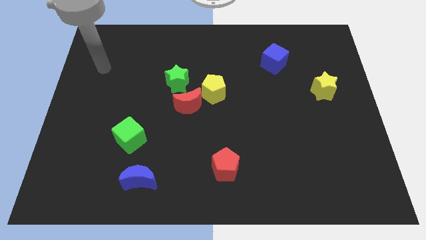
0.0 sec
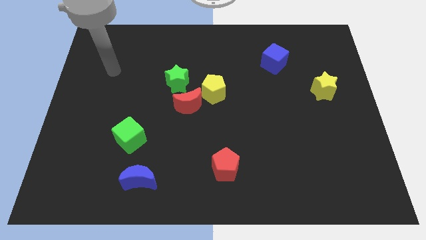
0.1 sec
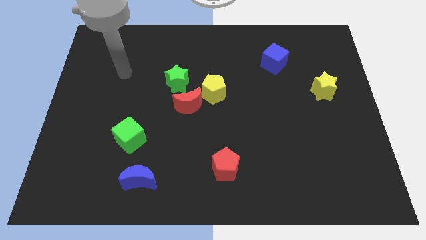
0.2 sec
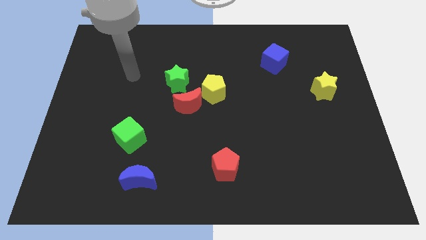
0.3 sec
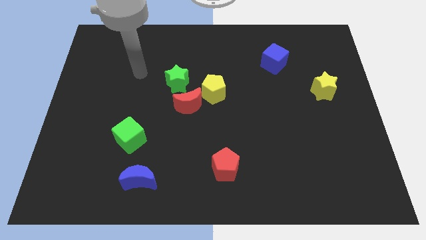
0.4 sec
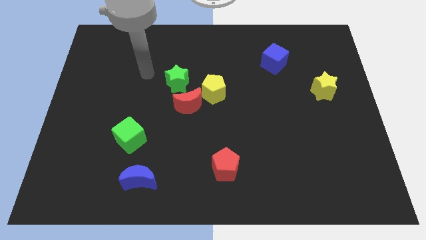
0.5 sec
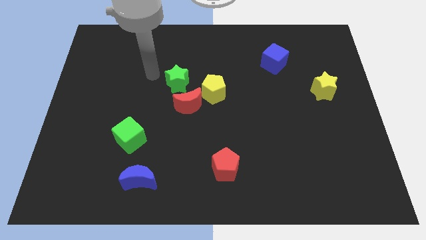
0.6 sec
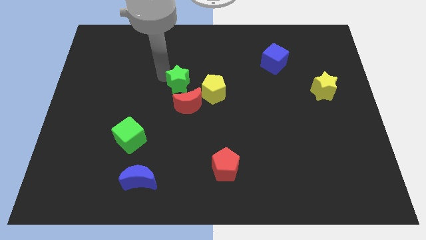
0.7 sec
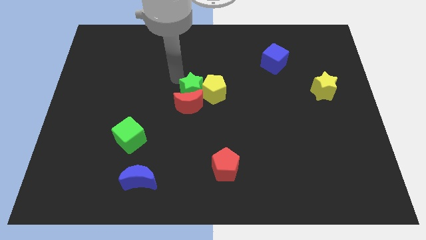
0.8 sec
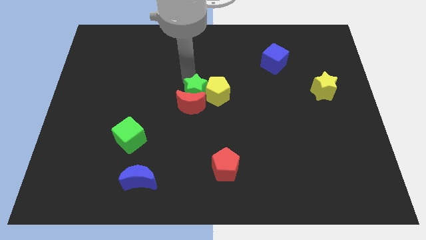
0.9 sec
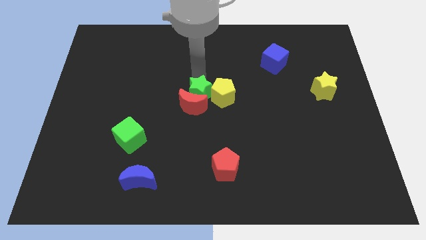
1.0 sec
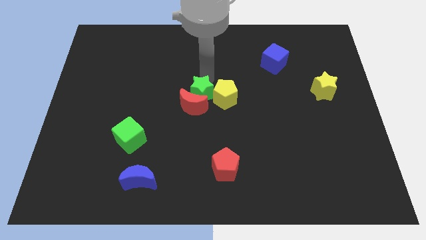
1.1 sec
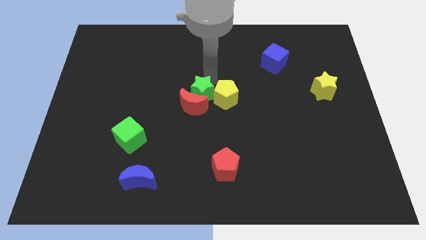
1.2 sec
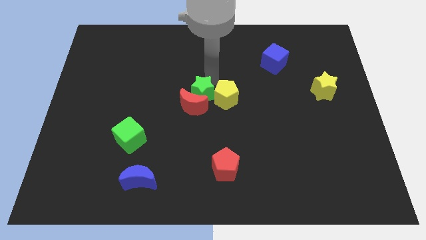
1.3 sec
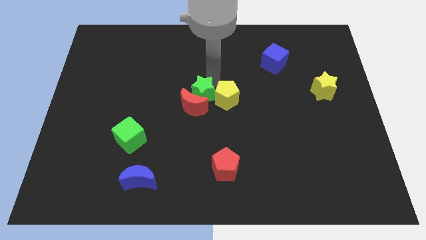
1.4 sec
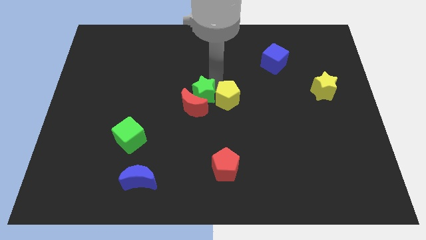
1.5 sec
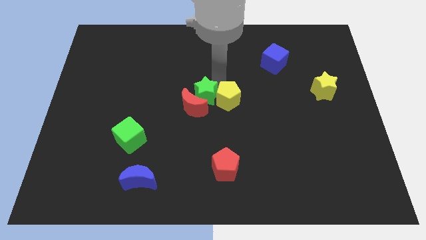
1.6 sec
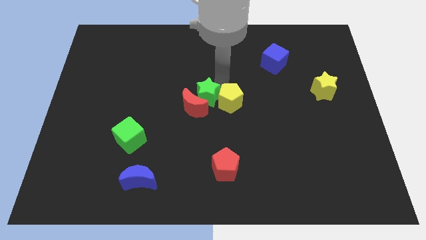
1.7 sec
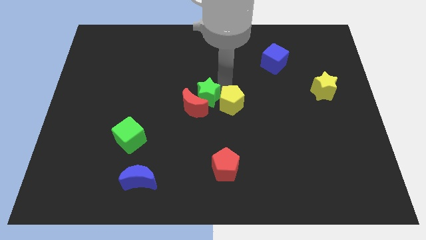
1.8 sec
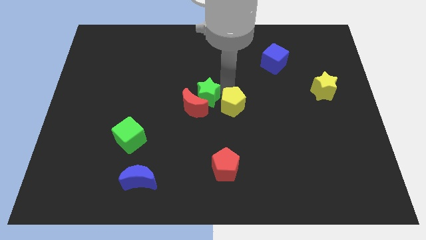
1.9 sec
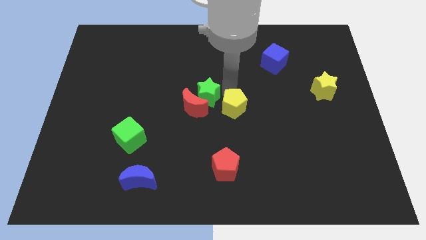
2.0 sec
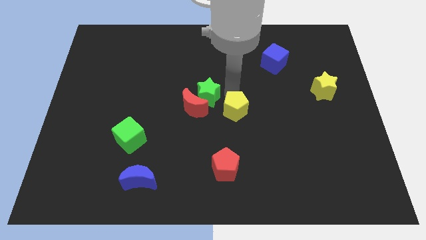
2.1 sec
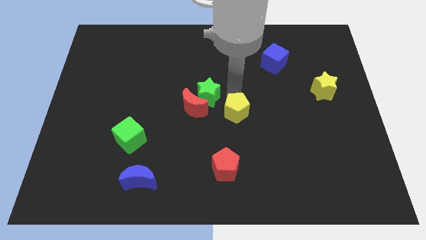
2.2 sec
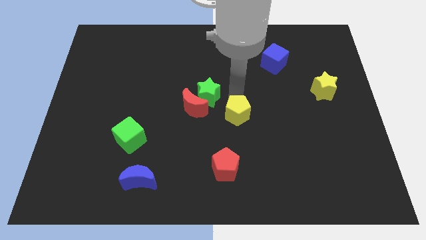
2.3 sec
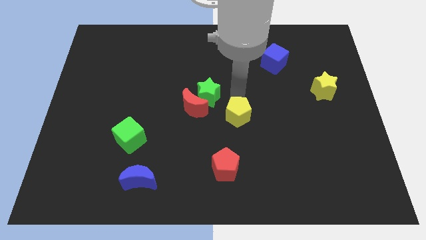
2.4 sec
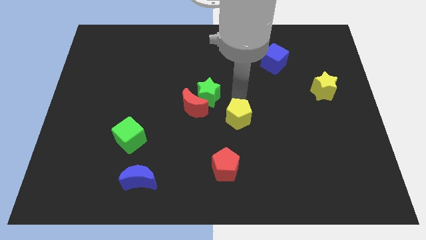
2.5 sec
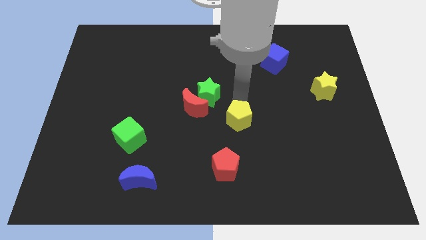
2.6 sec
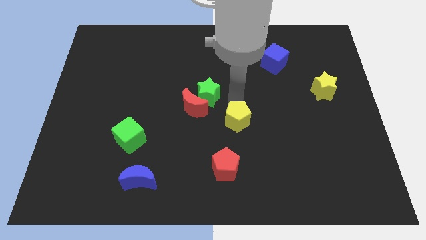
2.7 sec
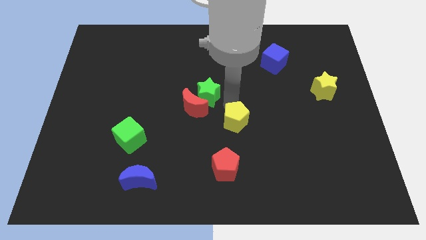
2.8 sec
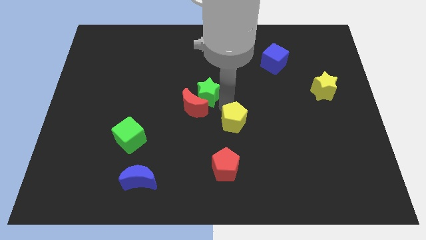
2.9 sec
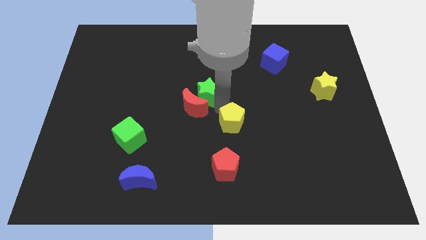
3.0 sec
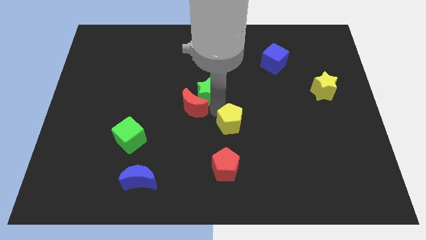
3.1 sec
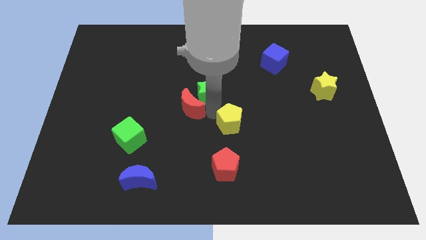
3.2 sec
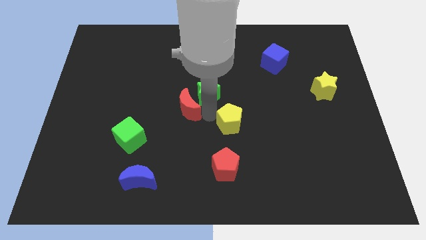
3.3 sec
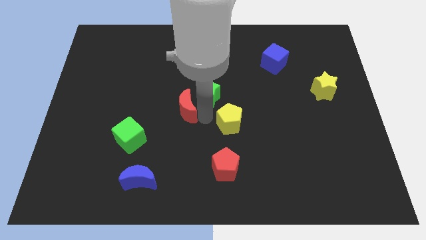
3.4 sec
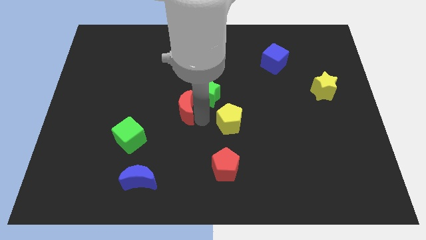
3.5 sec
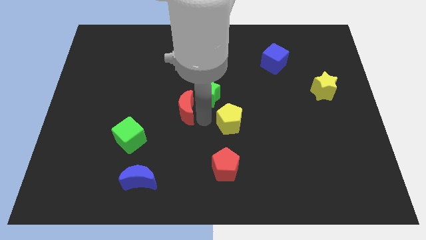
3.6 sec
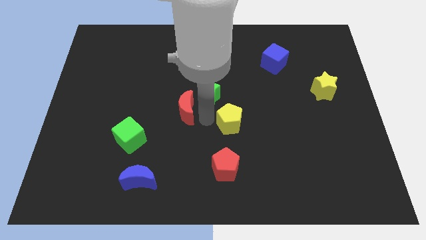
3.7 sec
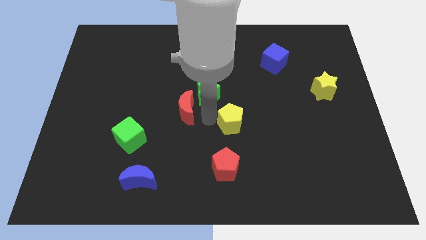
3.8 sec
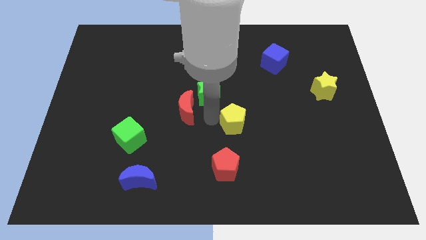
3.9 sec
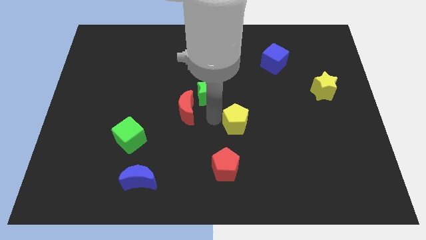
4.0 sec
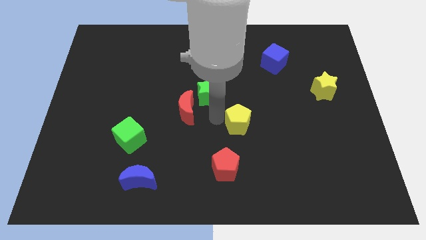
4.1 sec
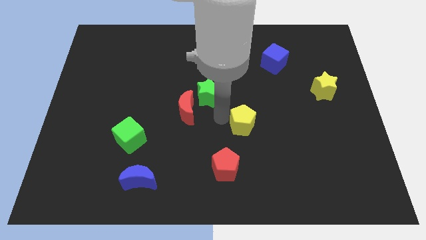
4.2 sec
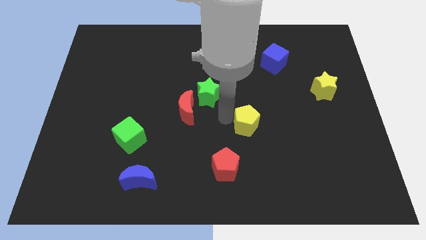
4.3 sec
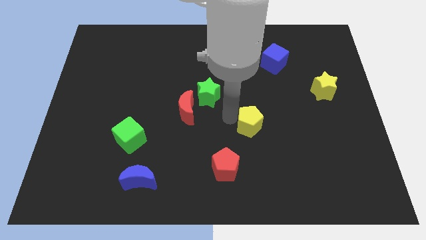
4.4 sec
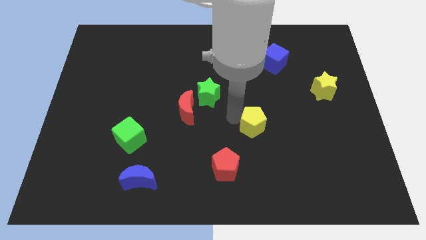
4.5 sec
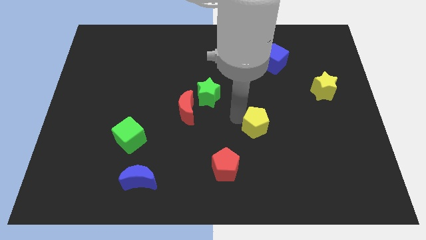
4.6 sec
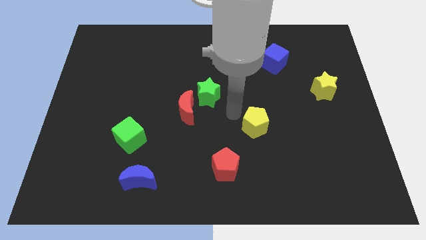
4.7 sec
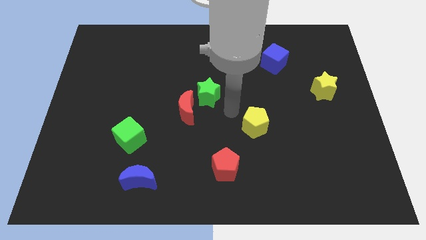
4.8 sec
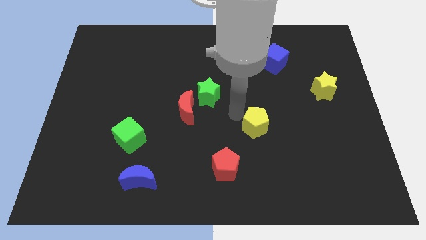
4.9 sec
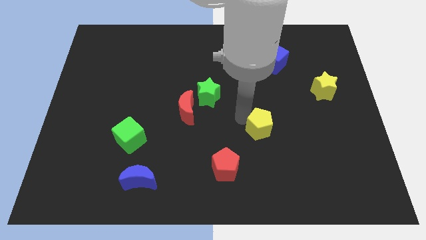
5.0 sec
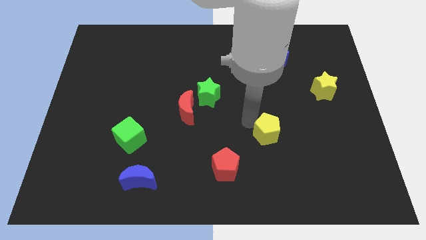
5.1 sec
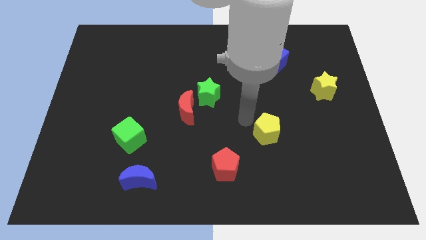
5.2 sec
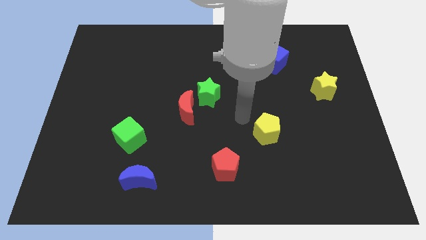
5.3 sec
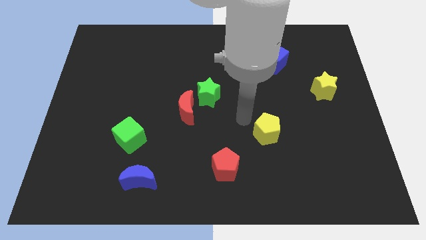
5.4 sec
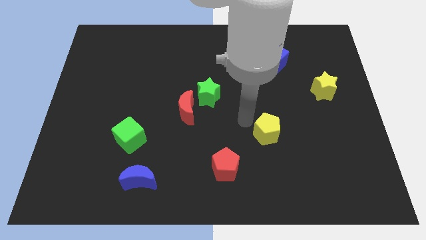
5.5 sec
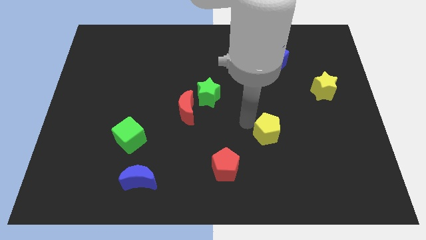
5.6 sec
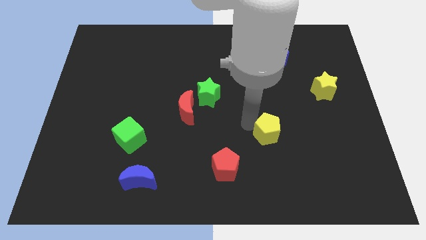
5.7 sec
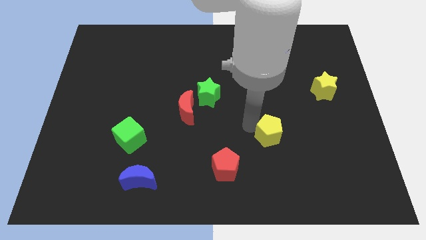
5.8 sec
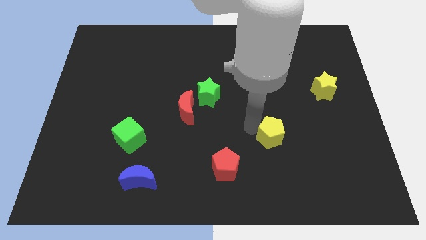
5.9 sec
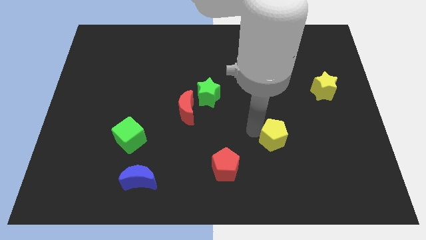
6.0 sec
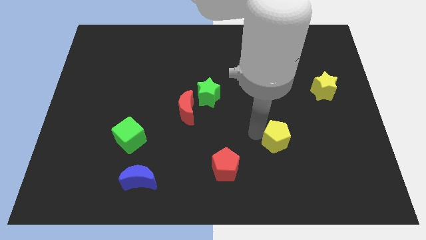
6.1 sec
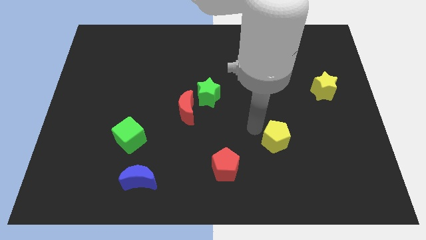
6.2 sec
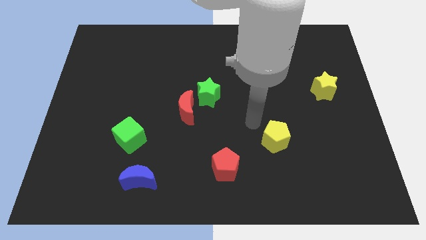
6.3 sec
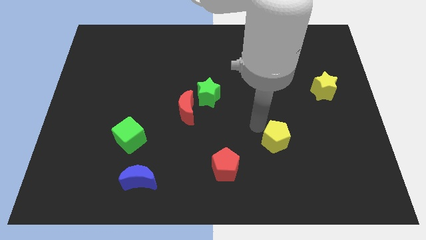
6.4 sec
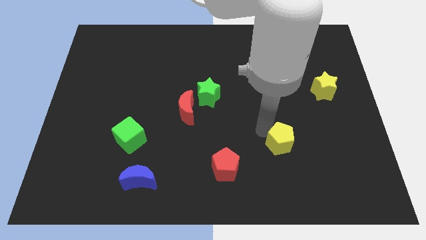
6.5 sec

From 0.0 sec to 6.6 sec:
push the yellow pentagon down and then to the right

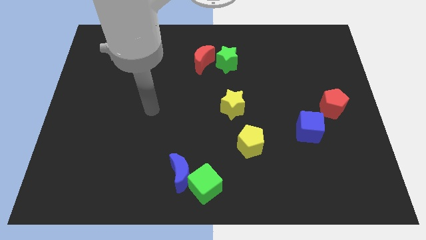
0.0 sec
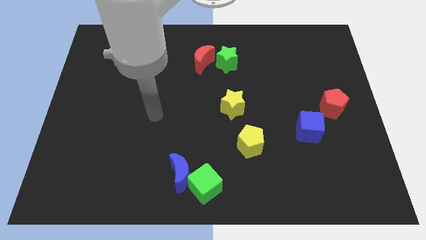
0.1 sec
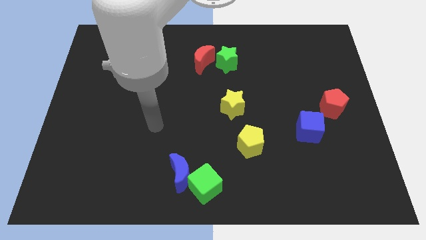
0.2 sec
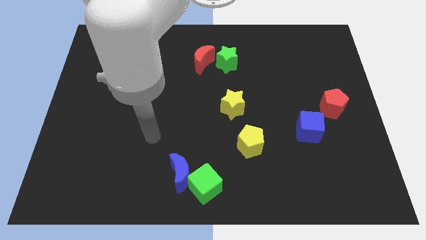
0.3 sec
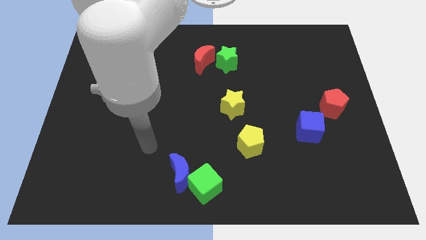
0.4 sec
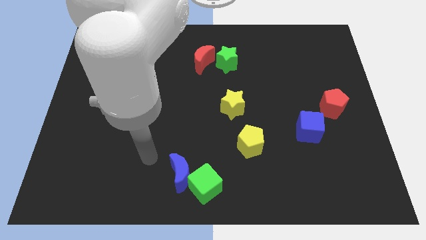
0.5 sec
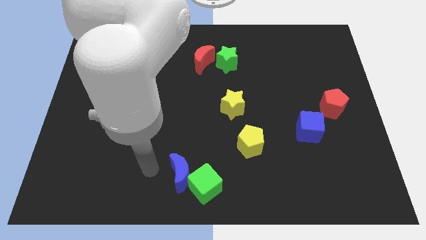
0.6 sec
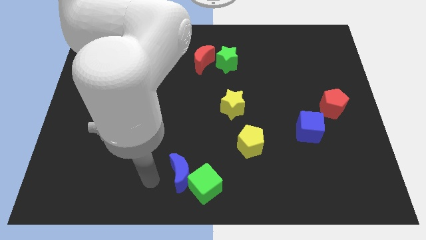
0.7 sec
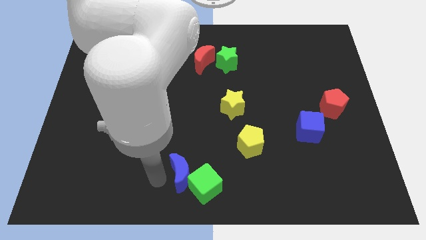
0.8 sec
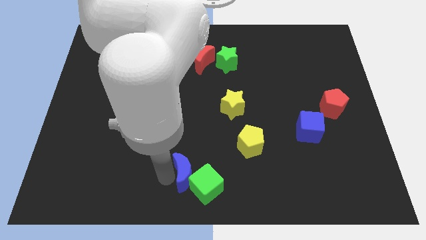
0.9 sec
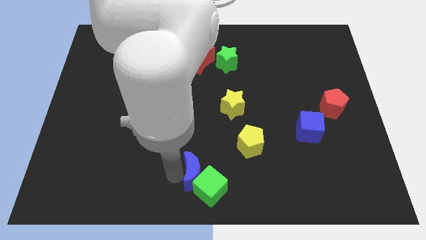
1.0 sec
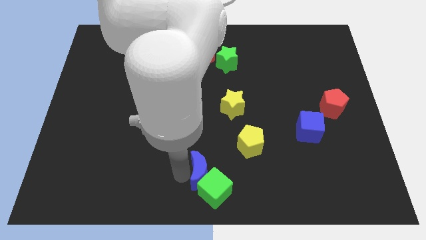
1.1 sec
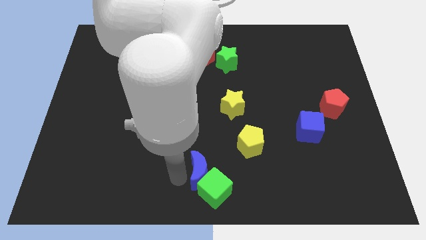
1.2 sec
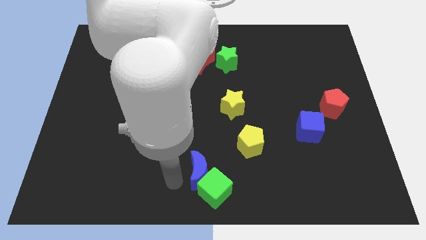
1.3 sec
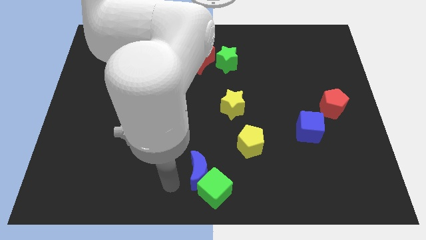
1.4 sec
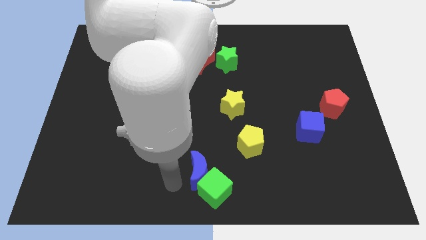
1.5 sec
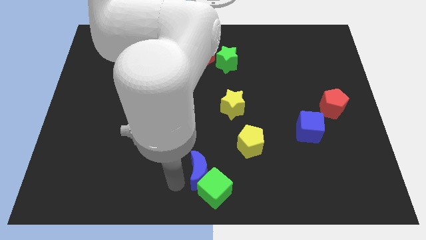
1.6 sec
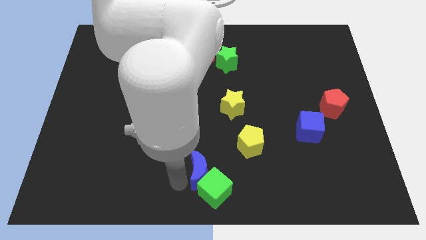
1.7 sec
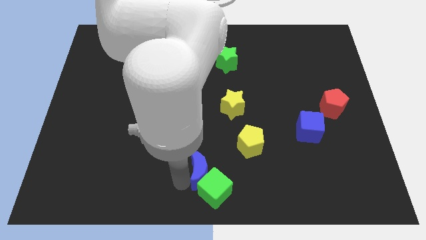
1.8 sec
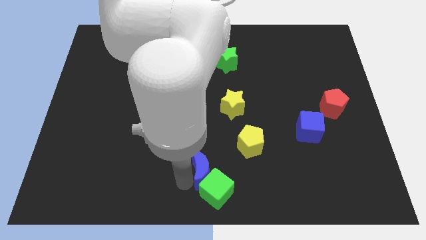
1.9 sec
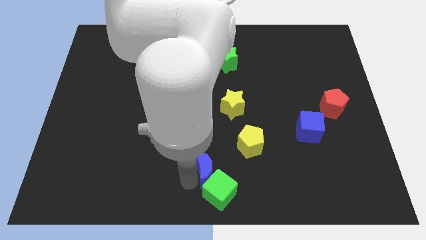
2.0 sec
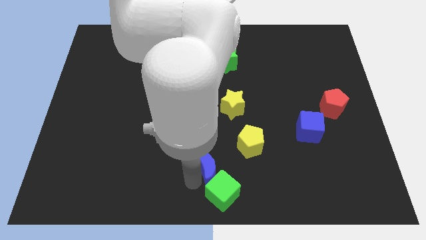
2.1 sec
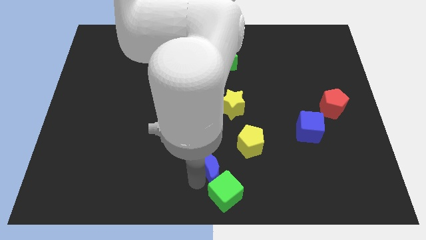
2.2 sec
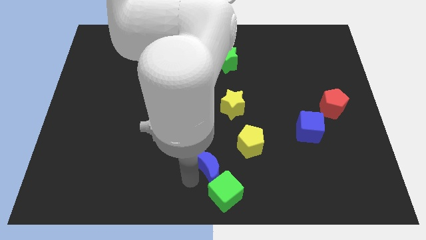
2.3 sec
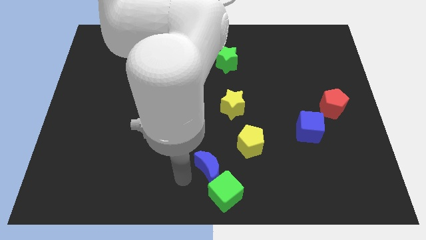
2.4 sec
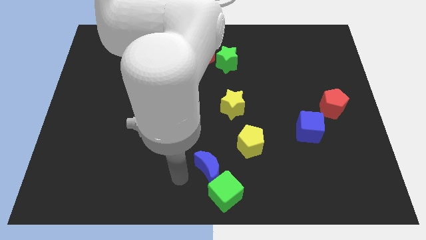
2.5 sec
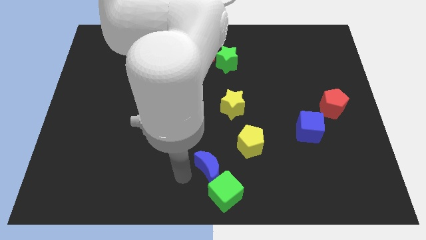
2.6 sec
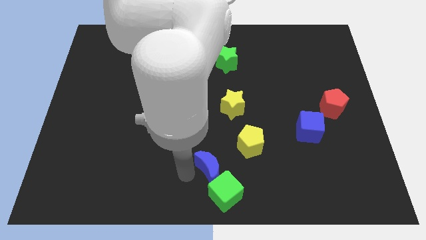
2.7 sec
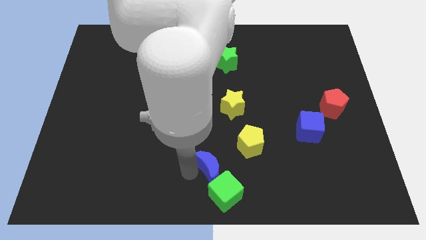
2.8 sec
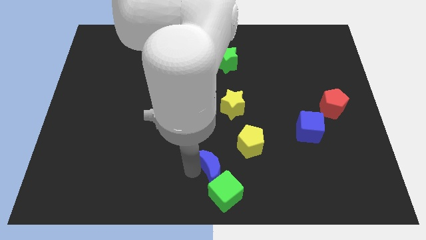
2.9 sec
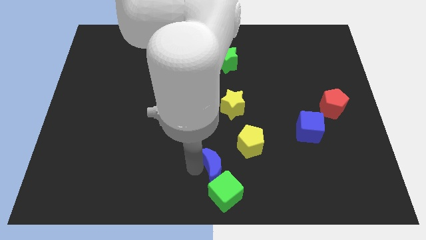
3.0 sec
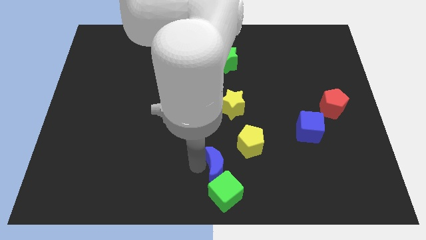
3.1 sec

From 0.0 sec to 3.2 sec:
push the blue moon somewhat to the right
